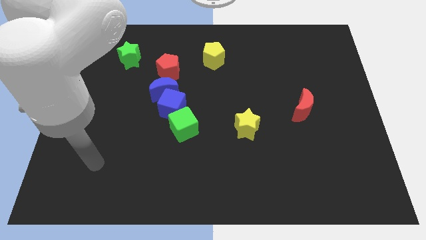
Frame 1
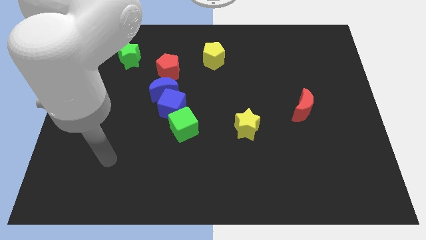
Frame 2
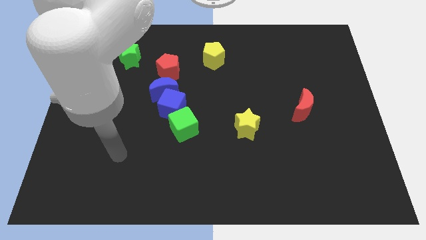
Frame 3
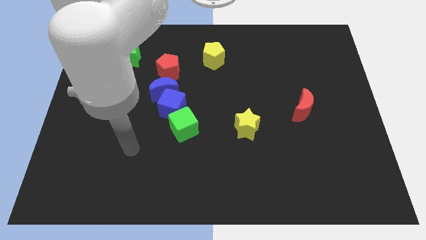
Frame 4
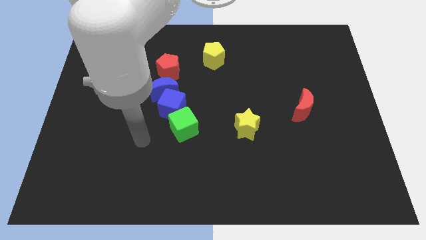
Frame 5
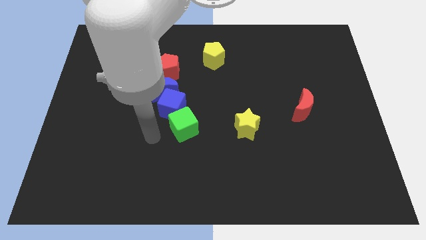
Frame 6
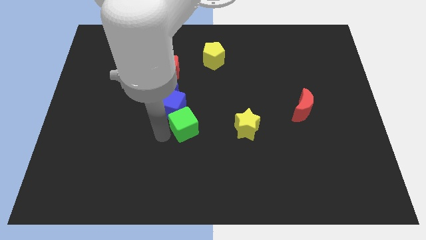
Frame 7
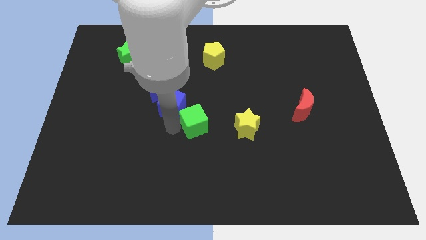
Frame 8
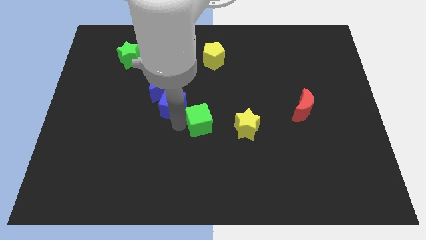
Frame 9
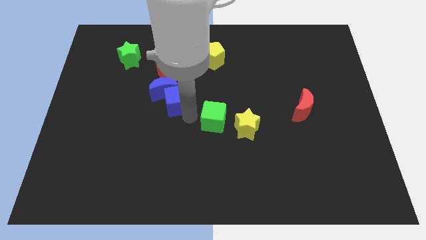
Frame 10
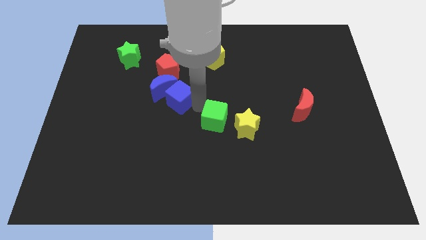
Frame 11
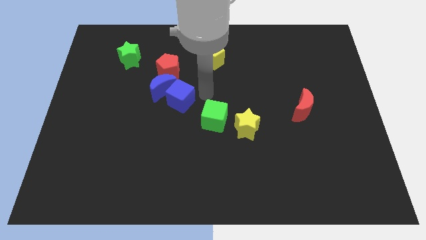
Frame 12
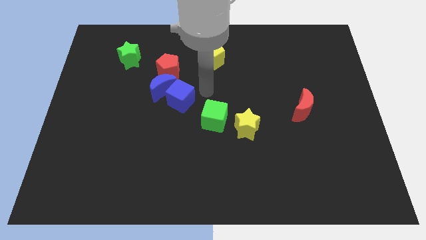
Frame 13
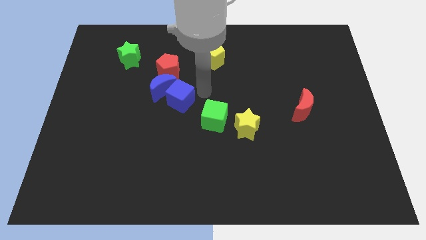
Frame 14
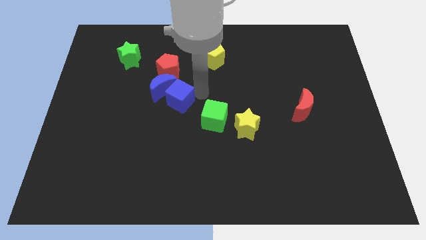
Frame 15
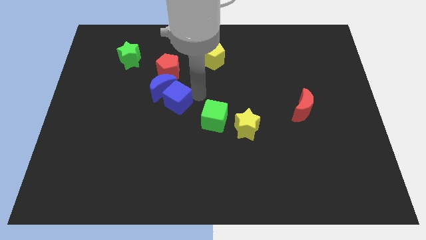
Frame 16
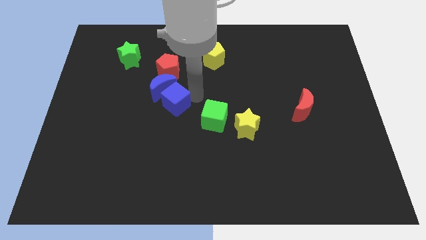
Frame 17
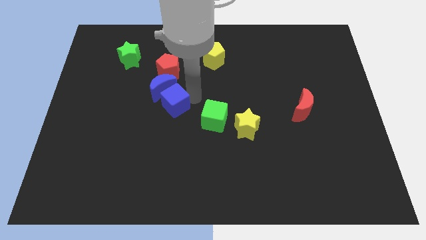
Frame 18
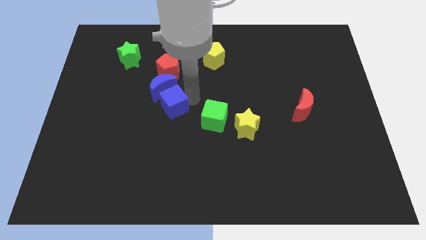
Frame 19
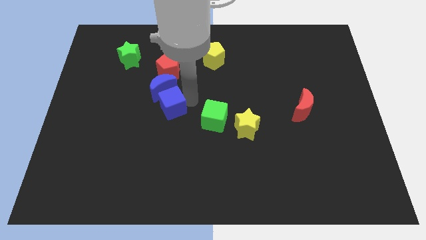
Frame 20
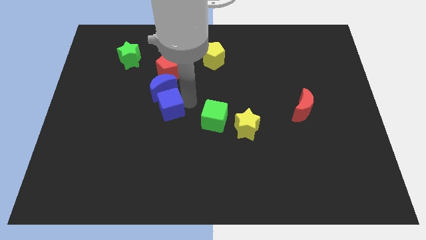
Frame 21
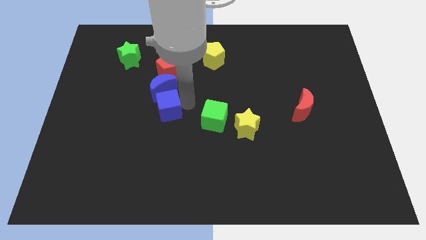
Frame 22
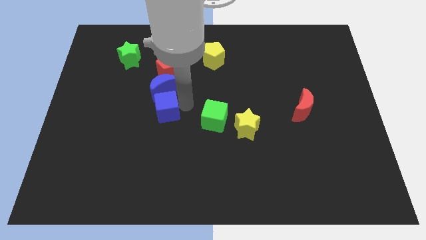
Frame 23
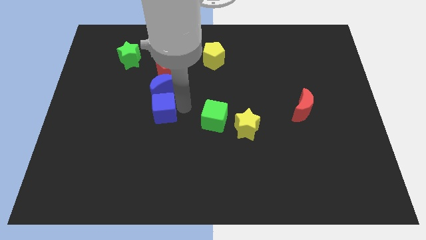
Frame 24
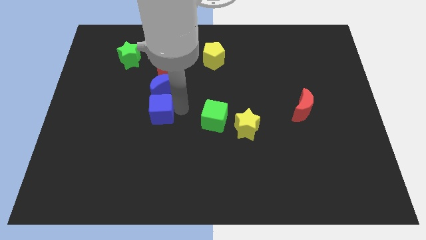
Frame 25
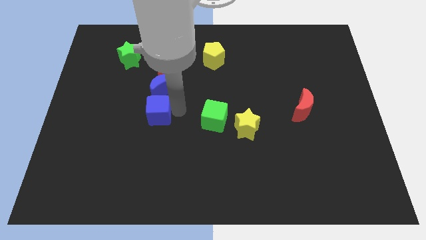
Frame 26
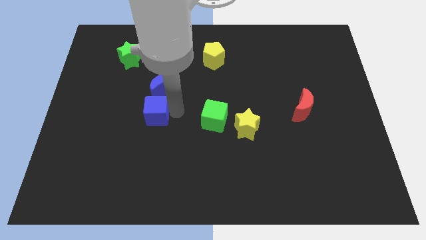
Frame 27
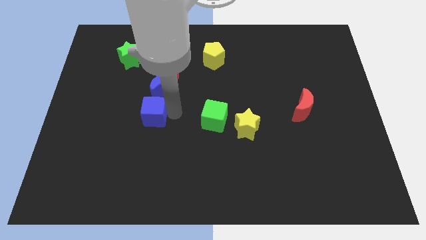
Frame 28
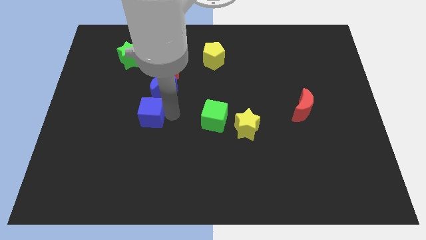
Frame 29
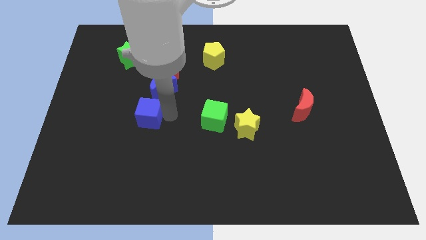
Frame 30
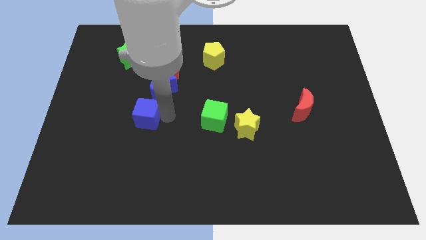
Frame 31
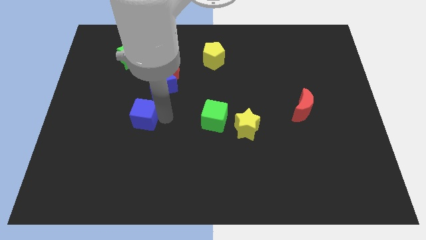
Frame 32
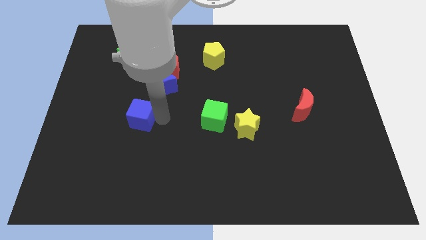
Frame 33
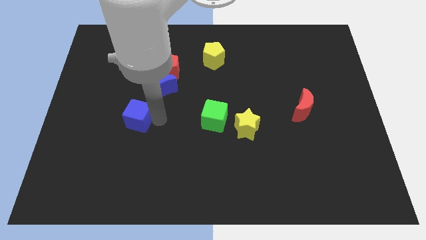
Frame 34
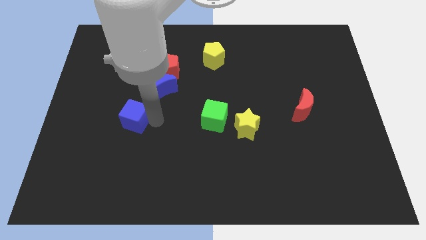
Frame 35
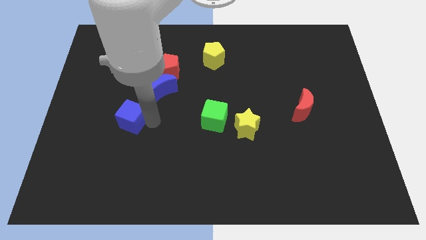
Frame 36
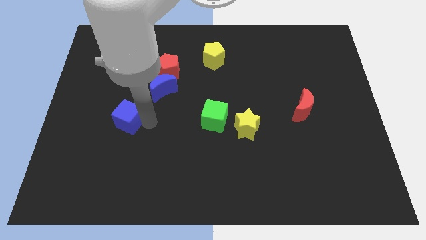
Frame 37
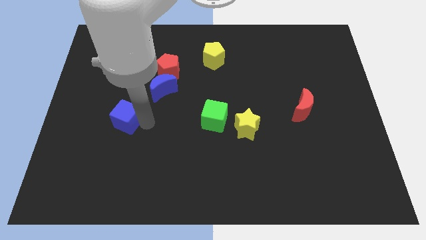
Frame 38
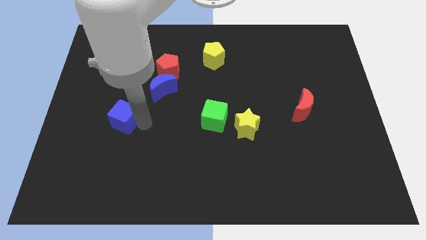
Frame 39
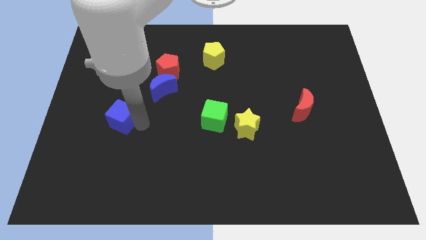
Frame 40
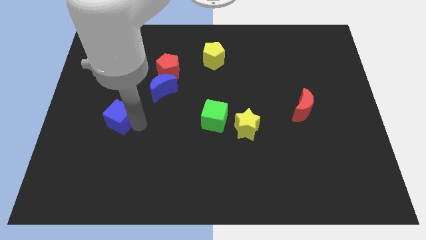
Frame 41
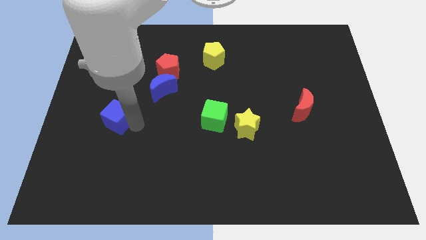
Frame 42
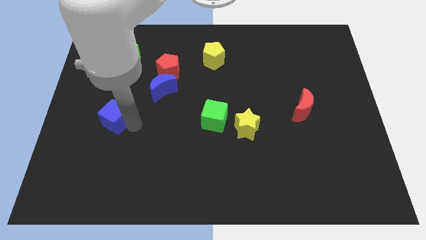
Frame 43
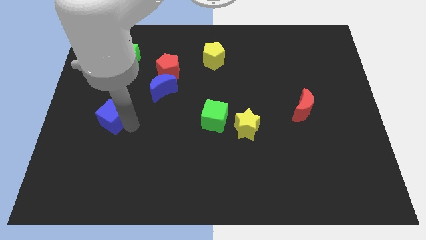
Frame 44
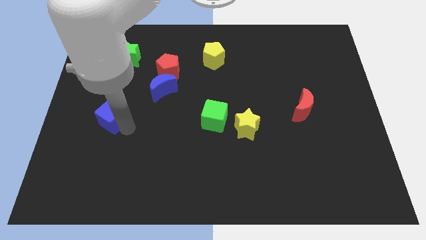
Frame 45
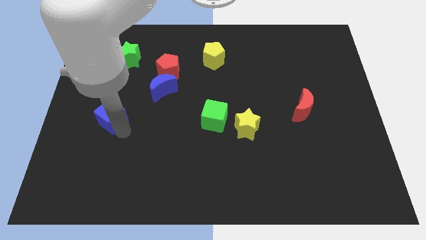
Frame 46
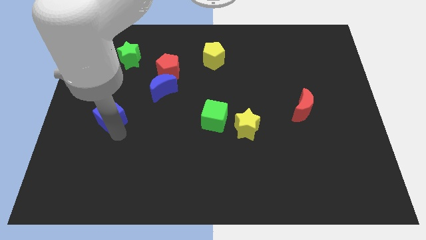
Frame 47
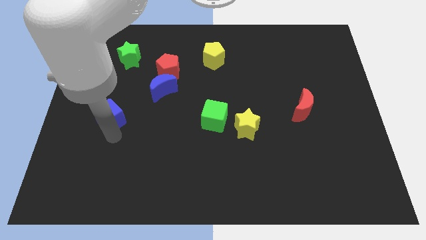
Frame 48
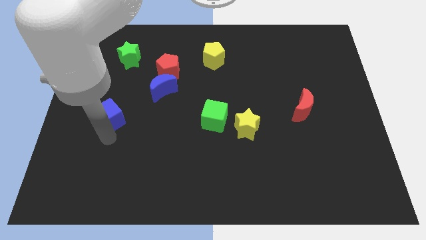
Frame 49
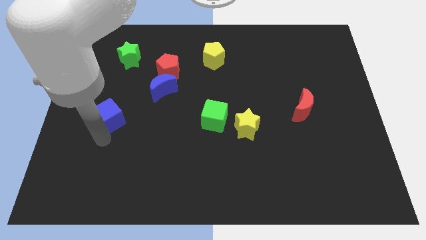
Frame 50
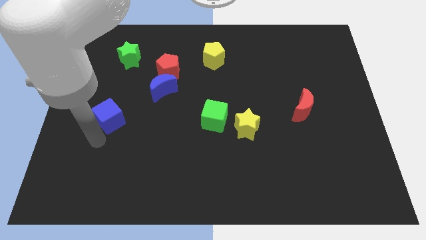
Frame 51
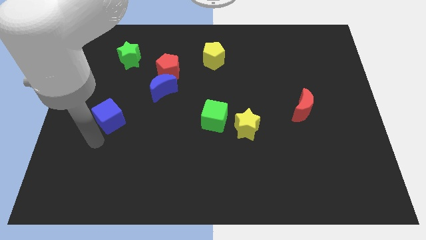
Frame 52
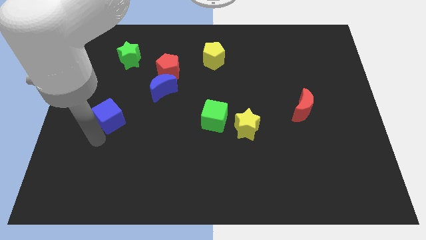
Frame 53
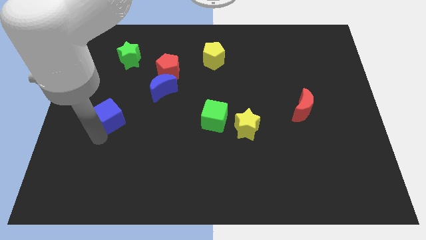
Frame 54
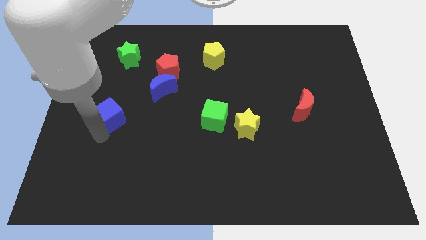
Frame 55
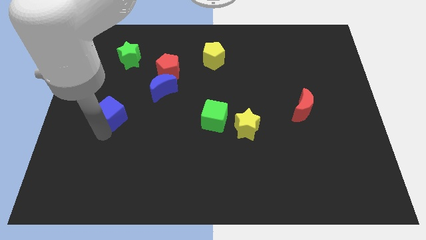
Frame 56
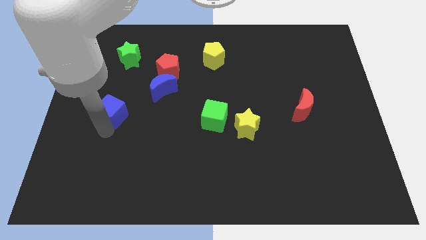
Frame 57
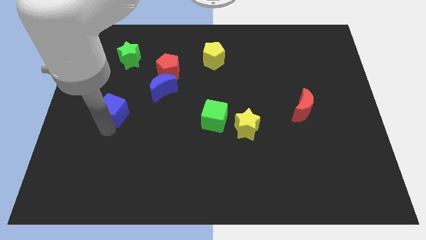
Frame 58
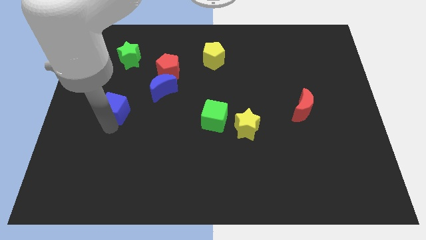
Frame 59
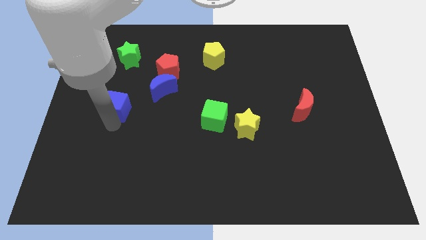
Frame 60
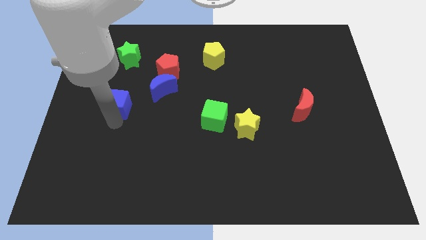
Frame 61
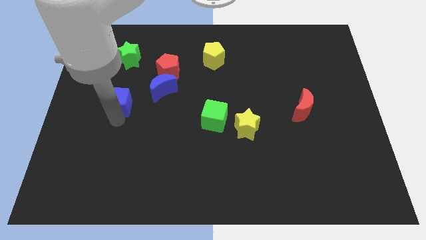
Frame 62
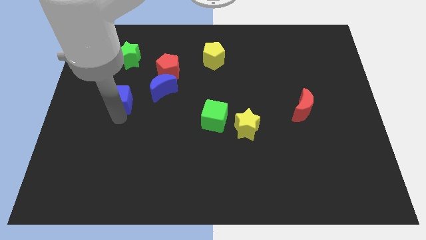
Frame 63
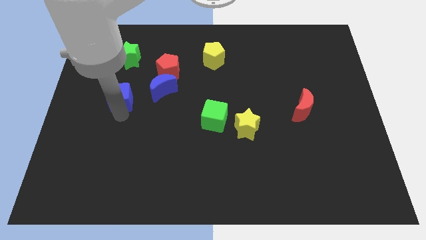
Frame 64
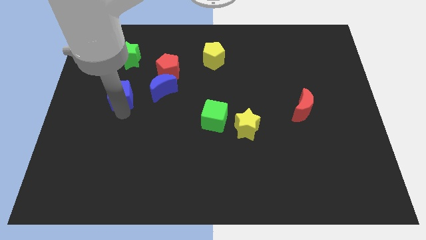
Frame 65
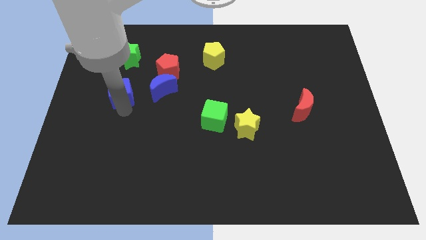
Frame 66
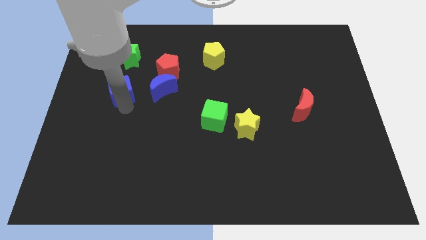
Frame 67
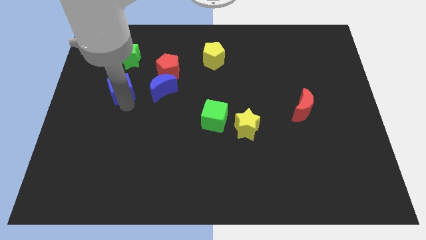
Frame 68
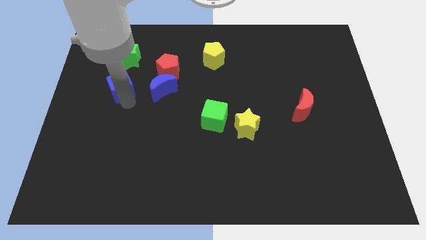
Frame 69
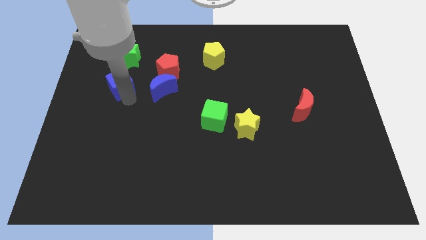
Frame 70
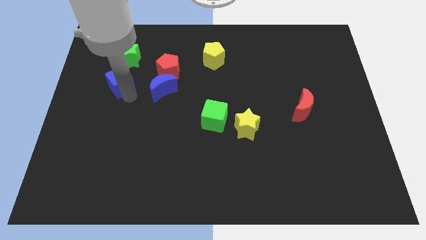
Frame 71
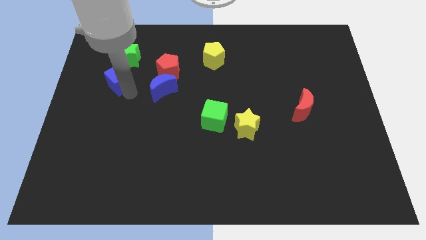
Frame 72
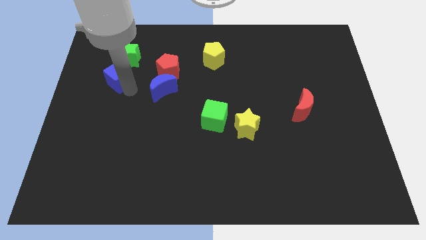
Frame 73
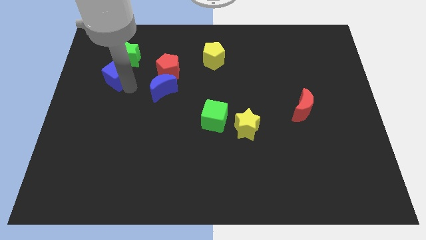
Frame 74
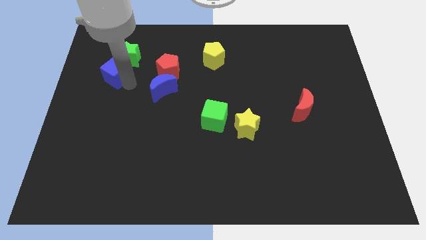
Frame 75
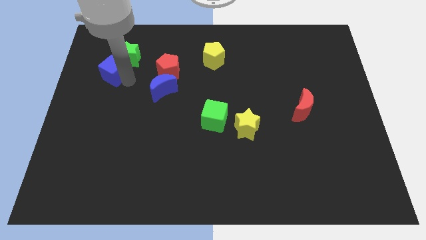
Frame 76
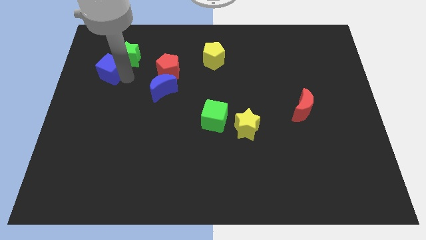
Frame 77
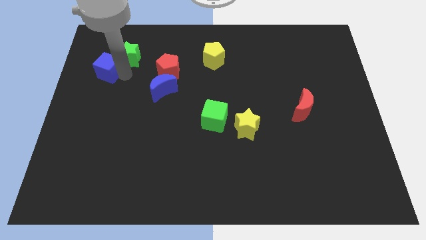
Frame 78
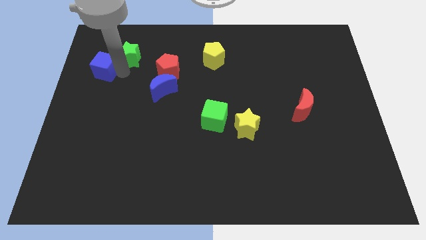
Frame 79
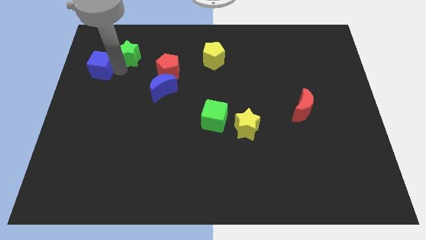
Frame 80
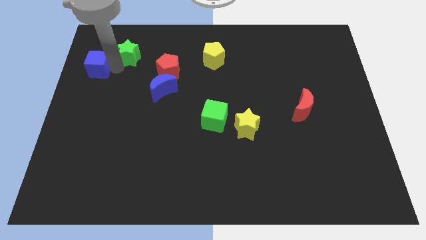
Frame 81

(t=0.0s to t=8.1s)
move the blue cube to the left side of the board
